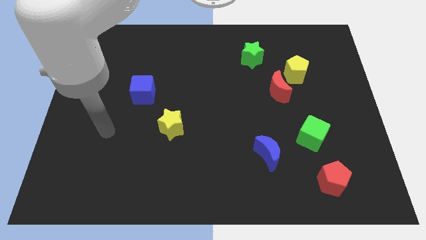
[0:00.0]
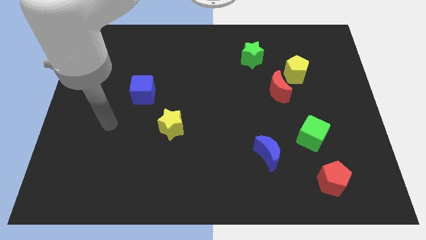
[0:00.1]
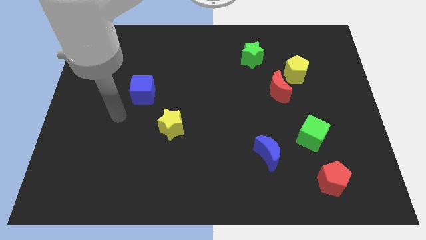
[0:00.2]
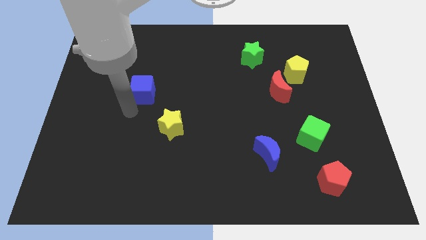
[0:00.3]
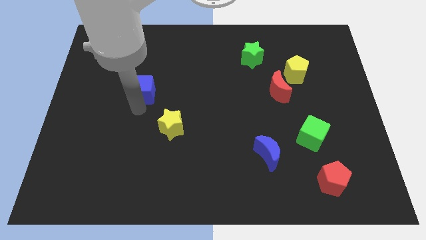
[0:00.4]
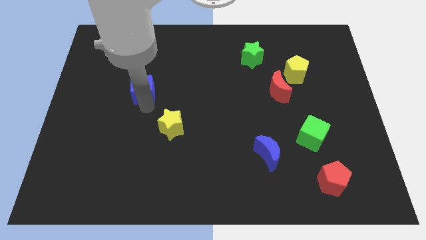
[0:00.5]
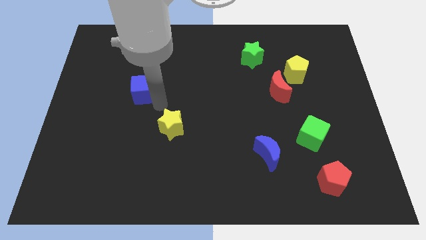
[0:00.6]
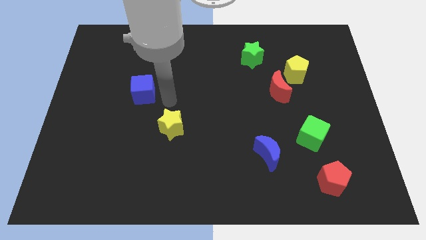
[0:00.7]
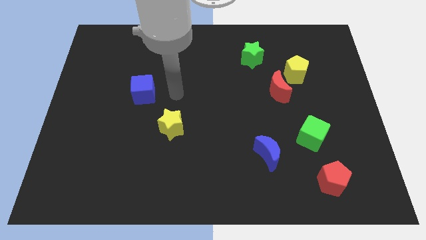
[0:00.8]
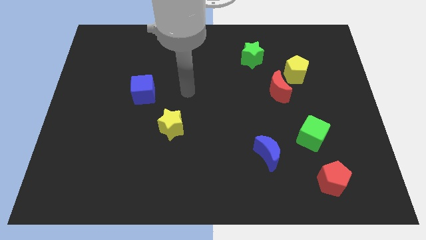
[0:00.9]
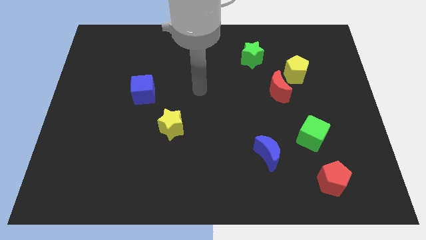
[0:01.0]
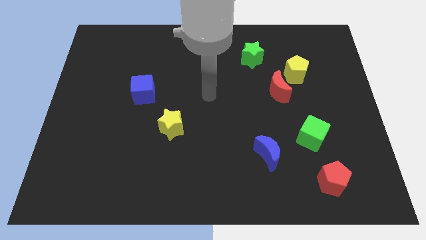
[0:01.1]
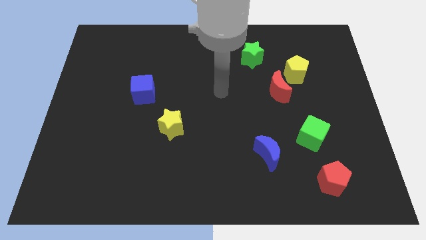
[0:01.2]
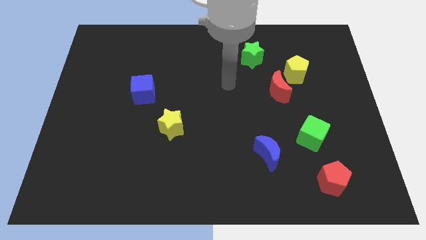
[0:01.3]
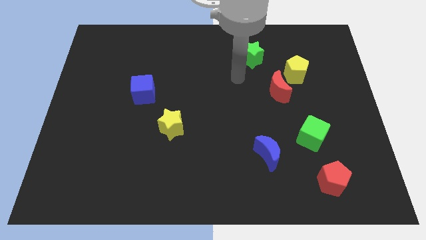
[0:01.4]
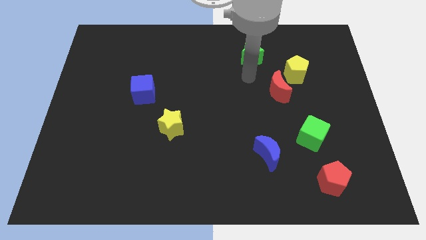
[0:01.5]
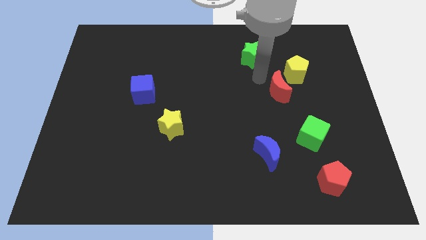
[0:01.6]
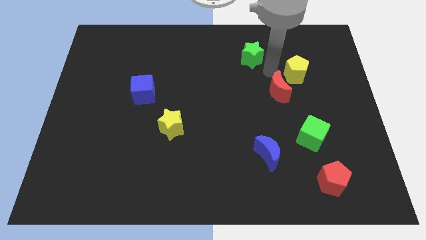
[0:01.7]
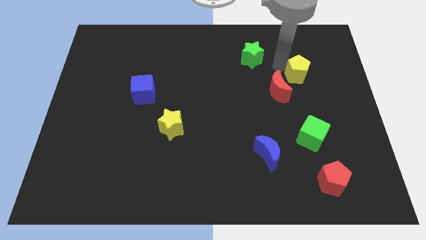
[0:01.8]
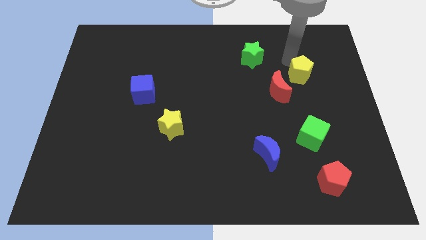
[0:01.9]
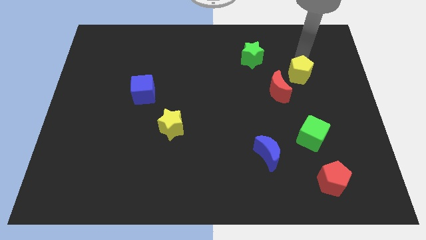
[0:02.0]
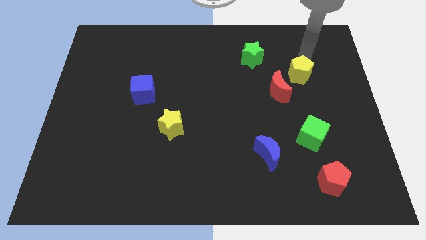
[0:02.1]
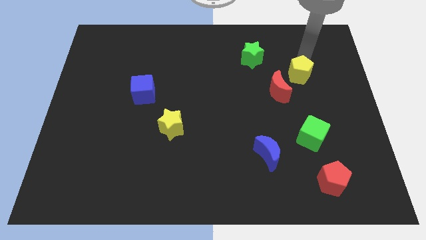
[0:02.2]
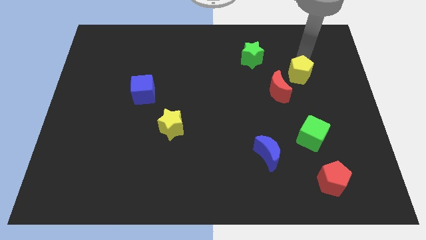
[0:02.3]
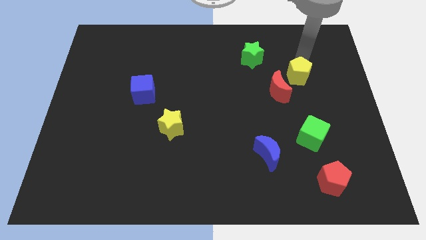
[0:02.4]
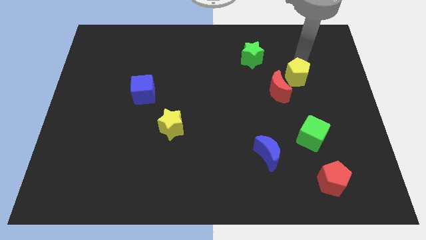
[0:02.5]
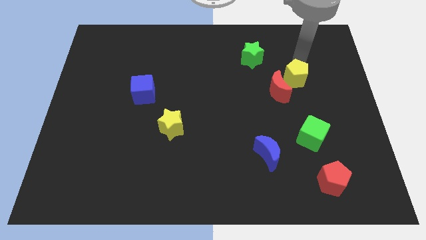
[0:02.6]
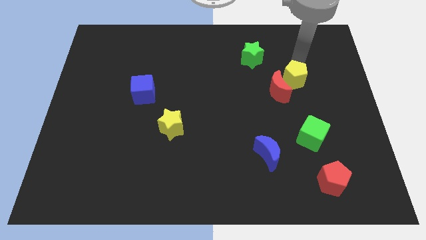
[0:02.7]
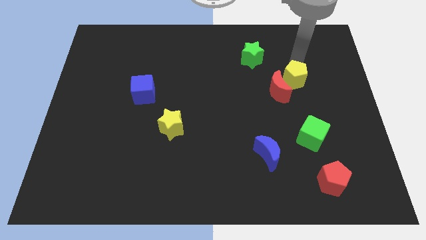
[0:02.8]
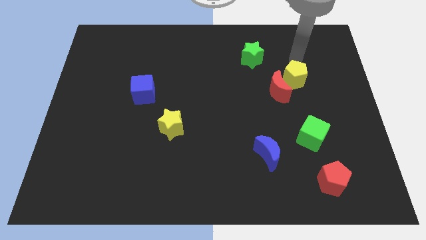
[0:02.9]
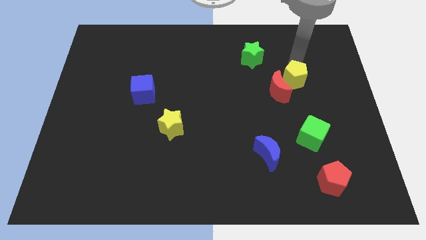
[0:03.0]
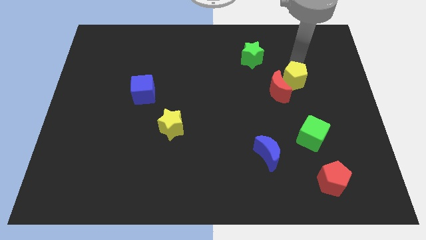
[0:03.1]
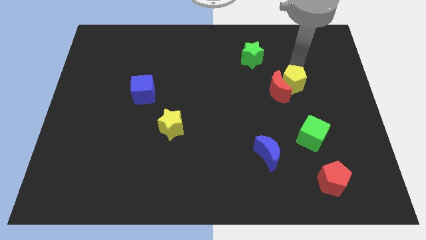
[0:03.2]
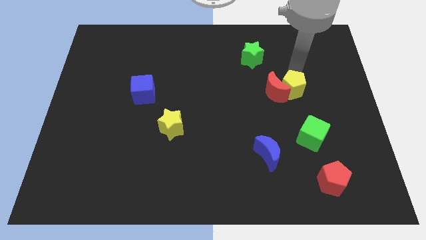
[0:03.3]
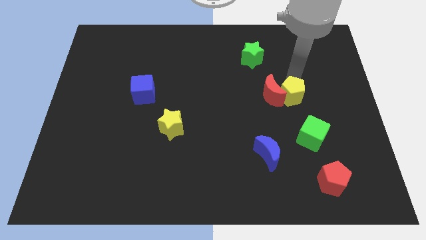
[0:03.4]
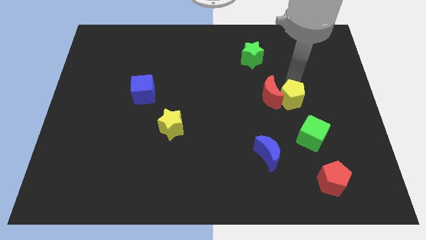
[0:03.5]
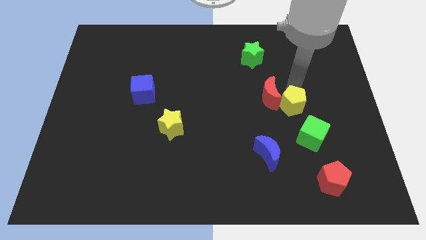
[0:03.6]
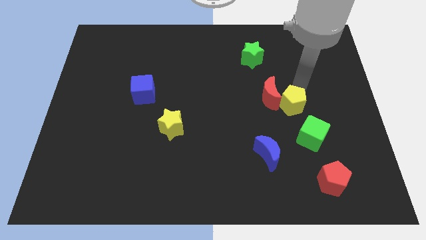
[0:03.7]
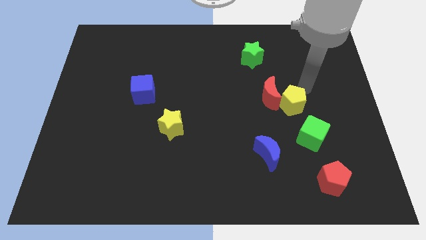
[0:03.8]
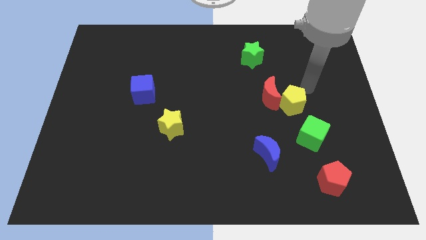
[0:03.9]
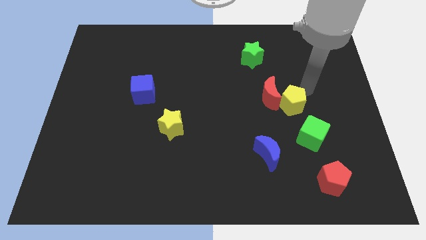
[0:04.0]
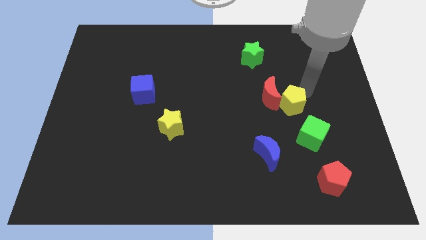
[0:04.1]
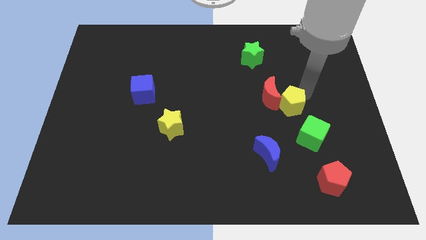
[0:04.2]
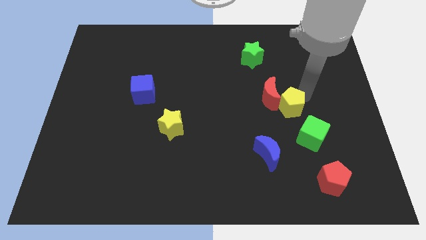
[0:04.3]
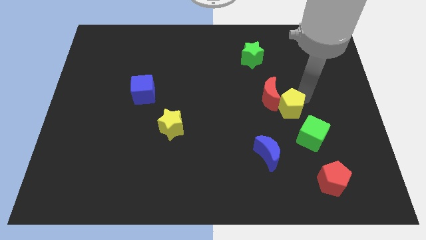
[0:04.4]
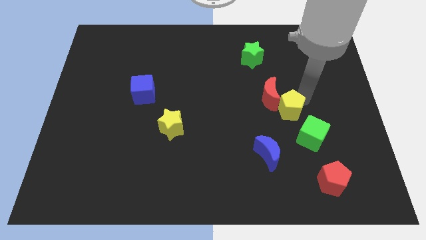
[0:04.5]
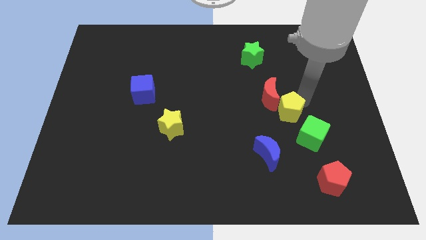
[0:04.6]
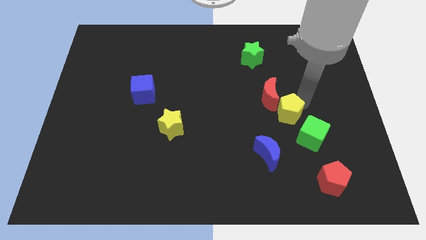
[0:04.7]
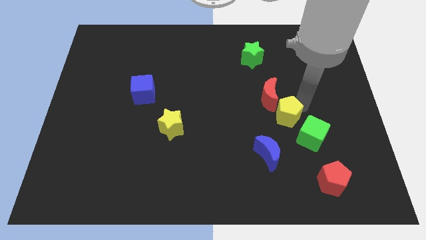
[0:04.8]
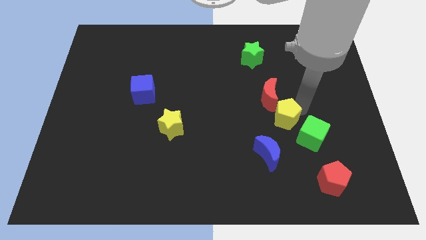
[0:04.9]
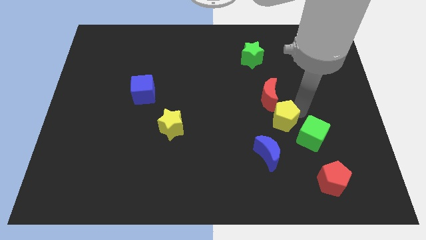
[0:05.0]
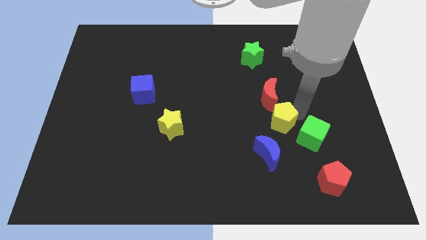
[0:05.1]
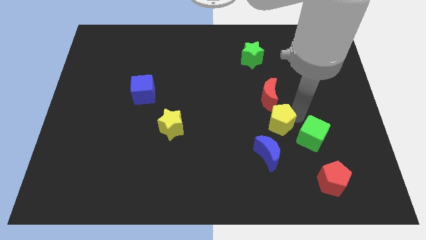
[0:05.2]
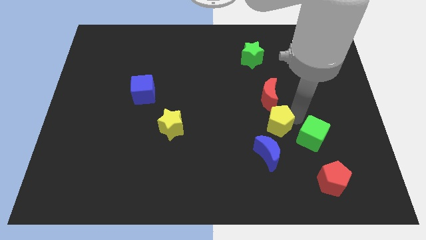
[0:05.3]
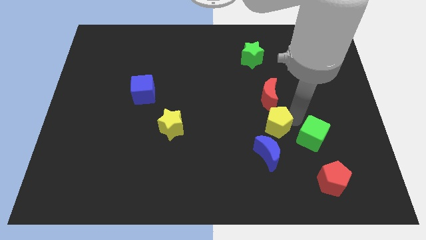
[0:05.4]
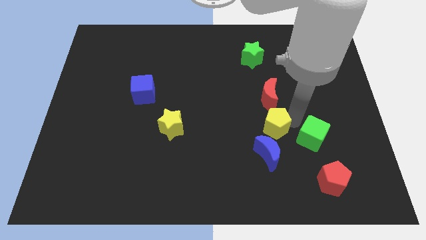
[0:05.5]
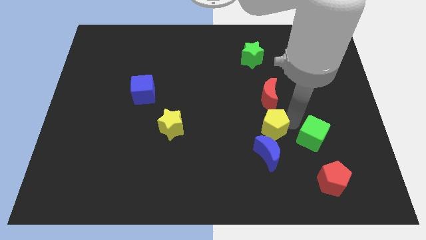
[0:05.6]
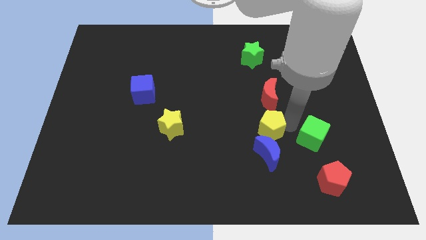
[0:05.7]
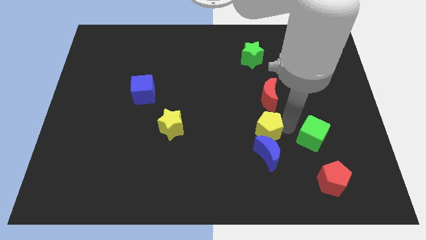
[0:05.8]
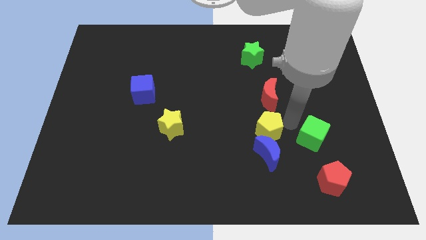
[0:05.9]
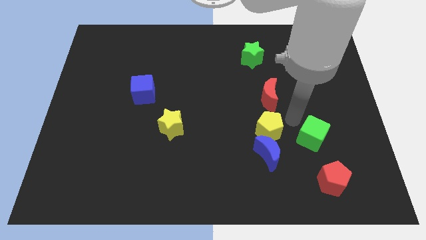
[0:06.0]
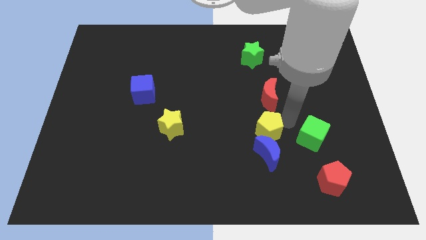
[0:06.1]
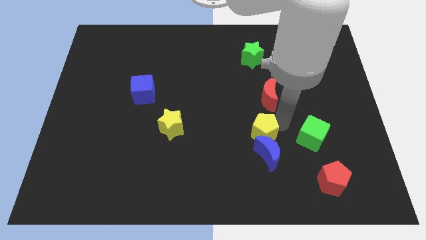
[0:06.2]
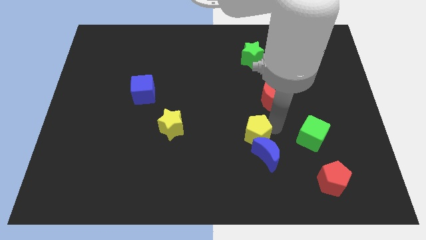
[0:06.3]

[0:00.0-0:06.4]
move the yellow pentagon downwards and then left

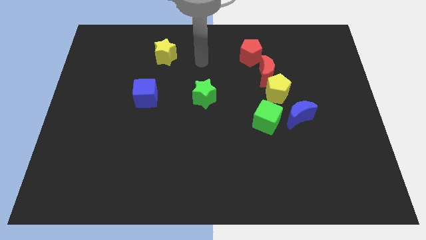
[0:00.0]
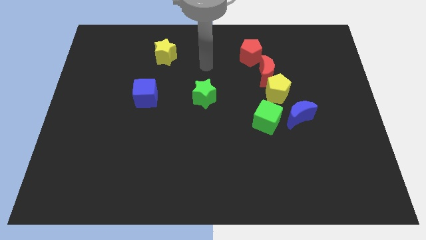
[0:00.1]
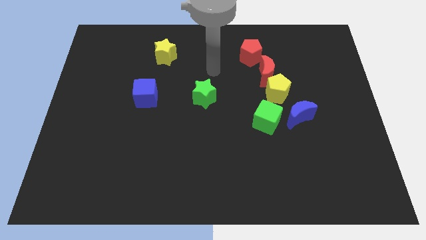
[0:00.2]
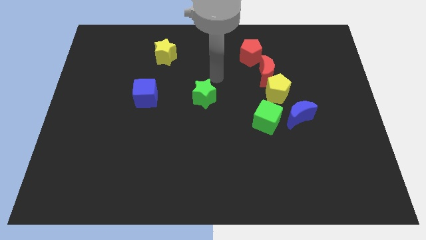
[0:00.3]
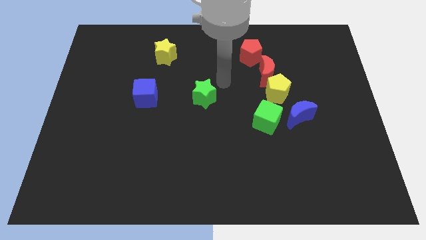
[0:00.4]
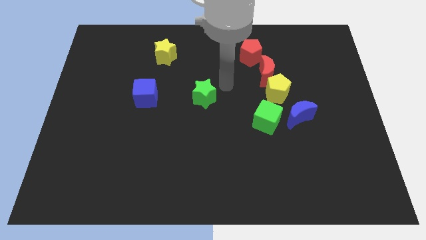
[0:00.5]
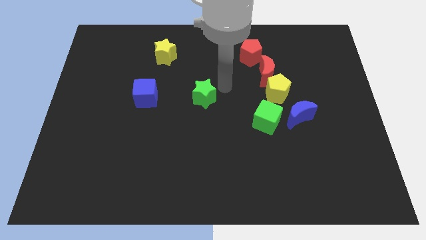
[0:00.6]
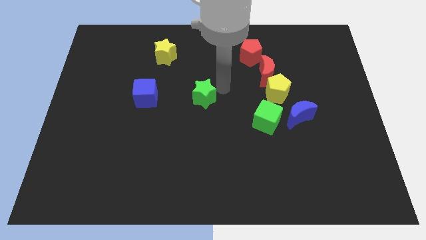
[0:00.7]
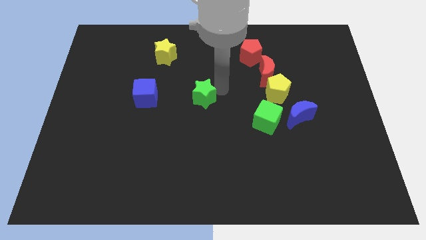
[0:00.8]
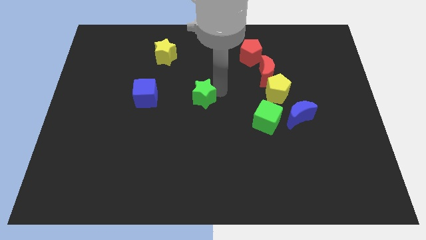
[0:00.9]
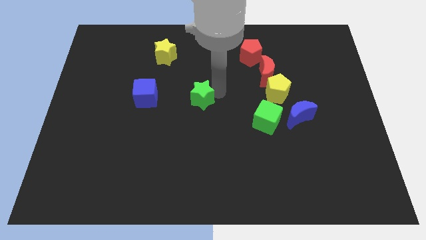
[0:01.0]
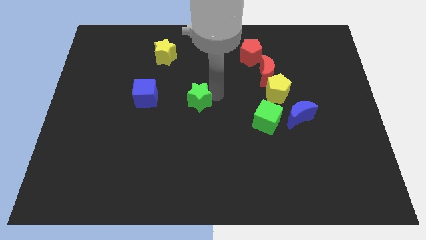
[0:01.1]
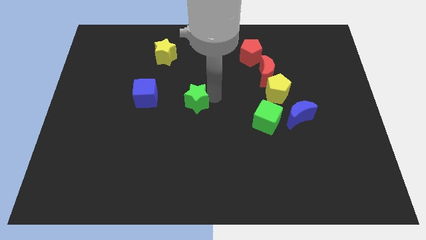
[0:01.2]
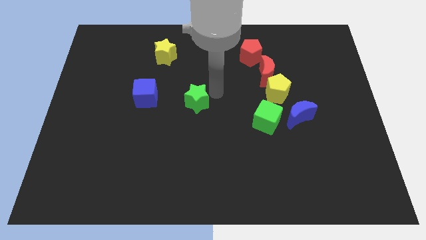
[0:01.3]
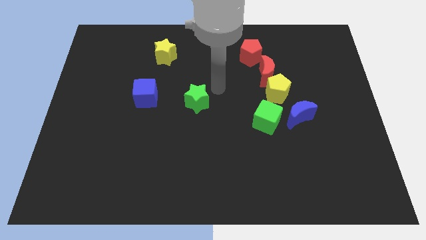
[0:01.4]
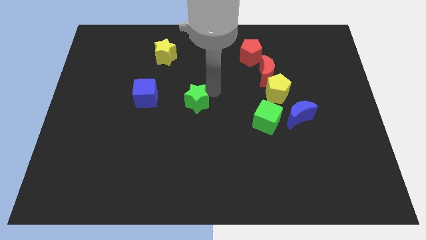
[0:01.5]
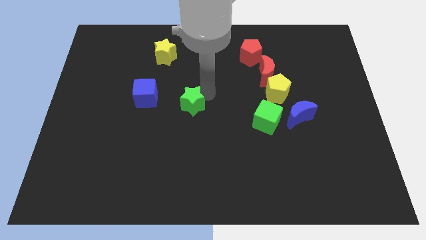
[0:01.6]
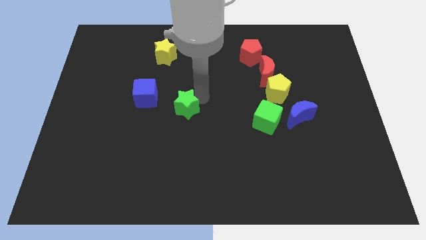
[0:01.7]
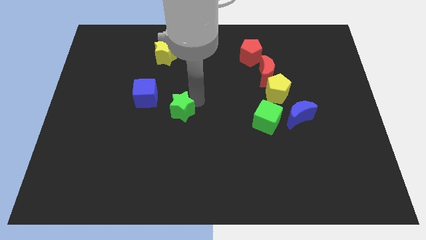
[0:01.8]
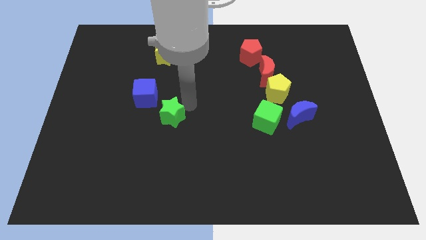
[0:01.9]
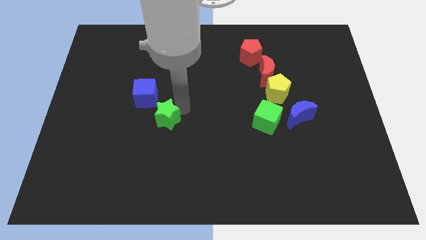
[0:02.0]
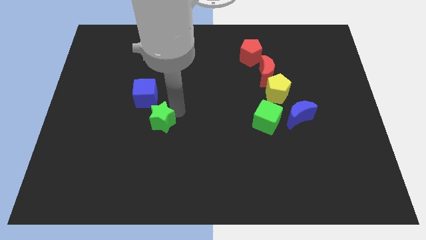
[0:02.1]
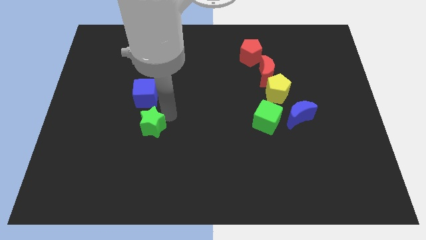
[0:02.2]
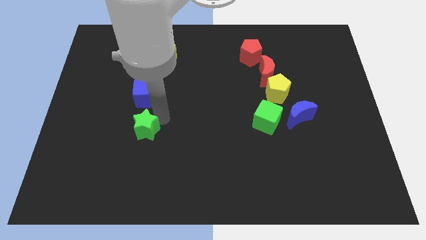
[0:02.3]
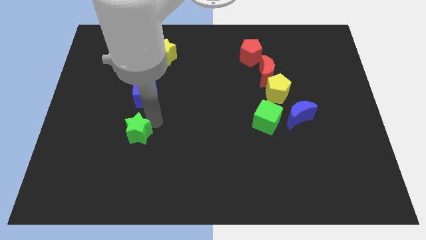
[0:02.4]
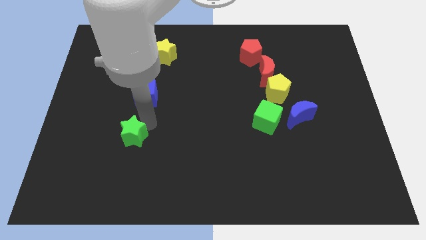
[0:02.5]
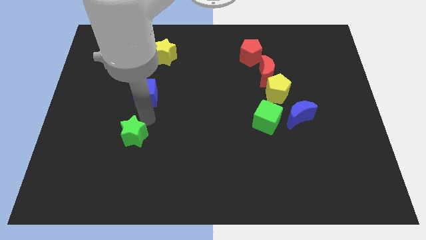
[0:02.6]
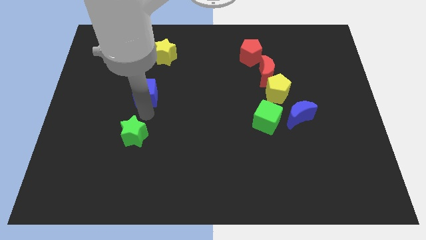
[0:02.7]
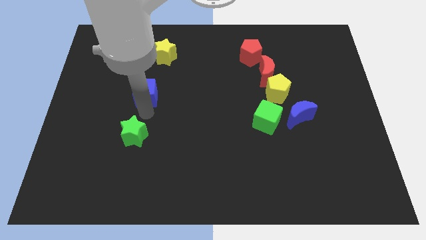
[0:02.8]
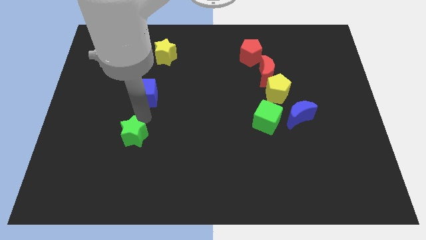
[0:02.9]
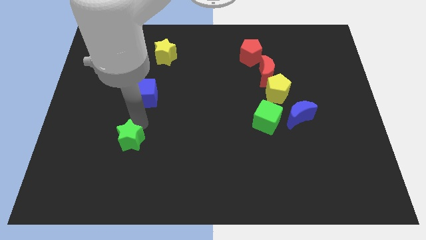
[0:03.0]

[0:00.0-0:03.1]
push the green star downwards and left
